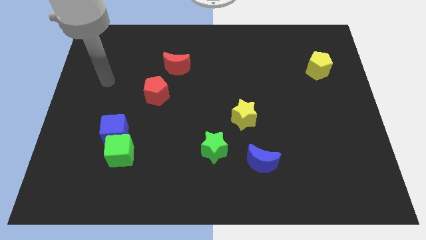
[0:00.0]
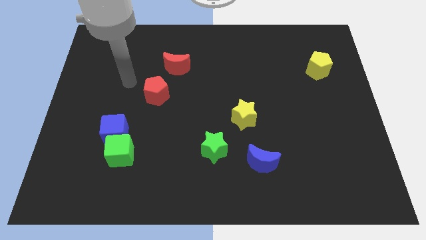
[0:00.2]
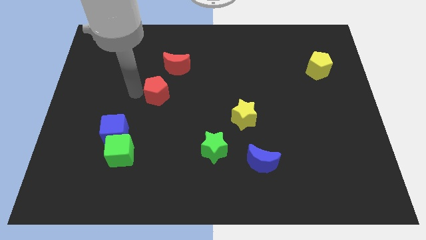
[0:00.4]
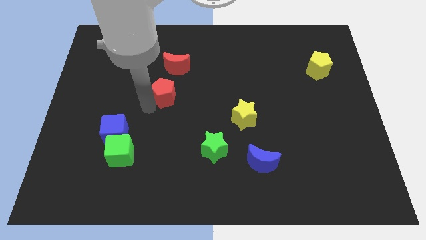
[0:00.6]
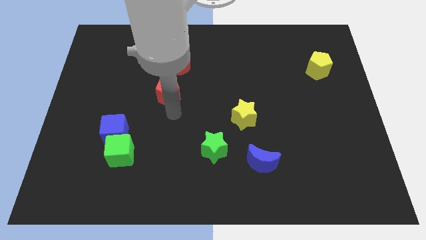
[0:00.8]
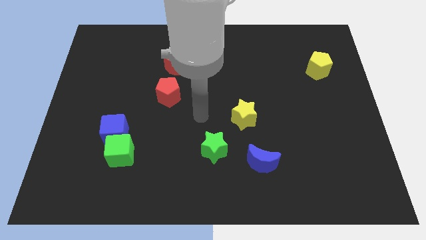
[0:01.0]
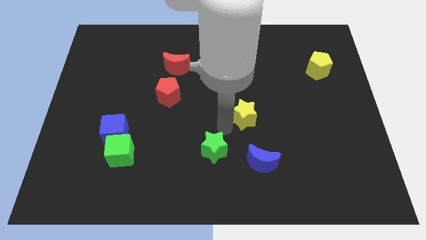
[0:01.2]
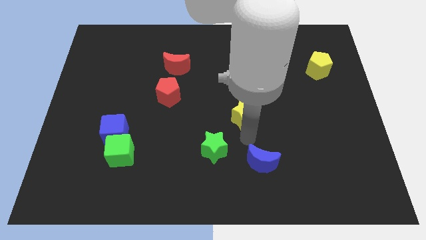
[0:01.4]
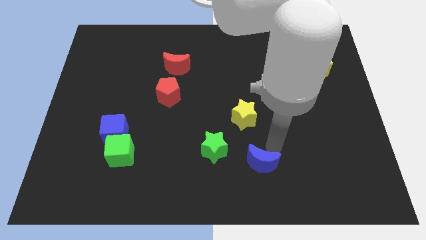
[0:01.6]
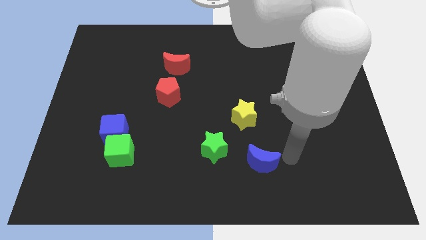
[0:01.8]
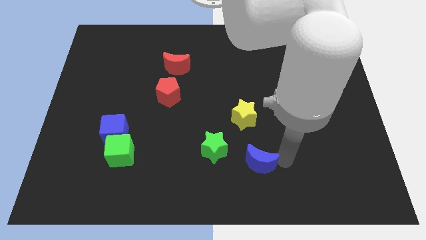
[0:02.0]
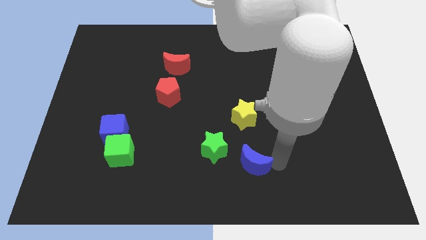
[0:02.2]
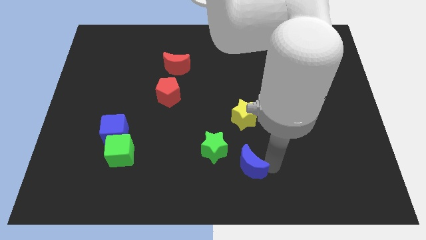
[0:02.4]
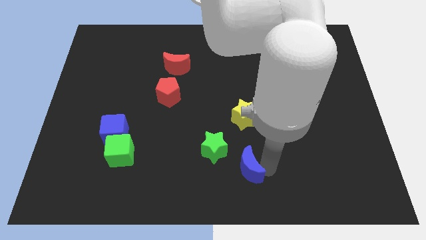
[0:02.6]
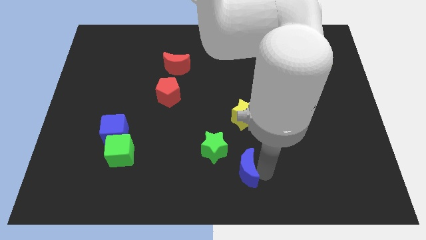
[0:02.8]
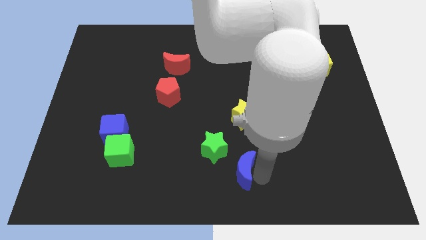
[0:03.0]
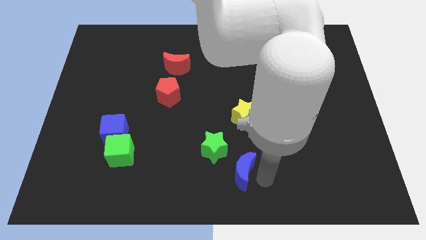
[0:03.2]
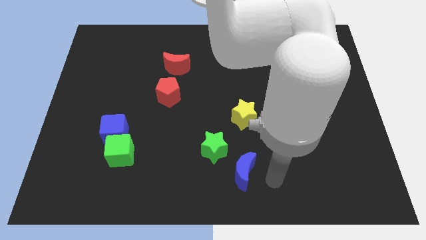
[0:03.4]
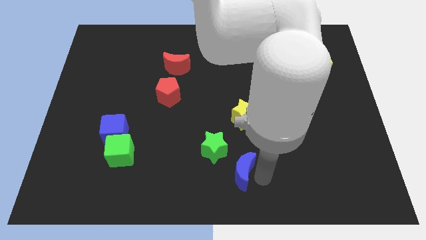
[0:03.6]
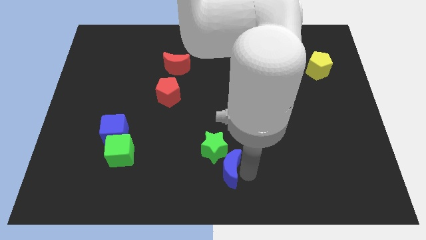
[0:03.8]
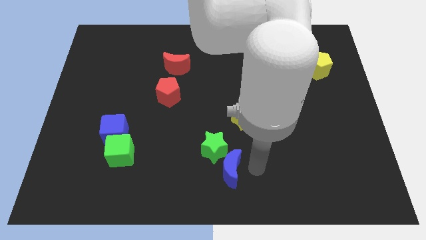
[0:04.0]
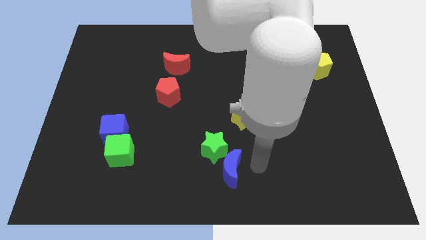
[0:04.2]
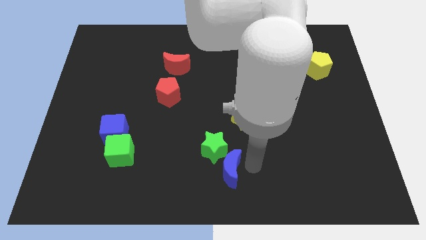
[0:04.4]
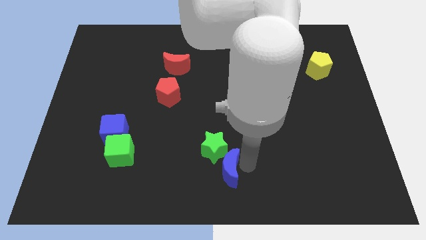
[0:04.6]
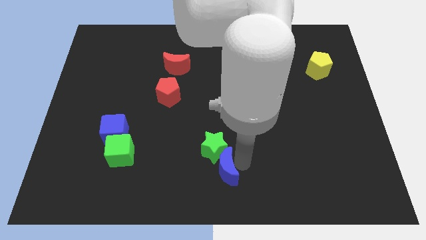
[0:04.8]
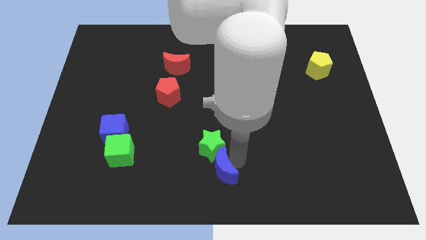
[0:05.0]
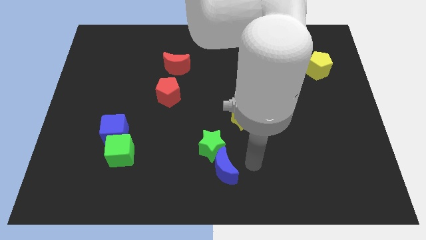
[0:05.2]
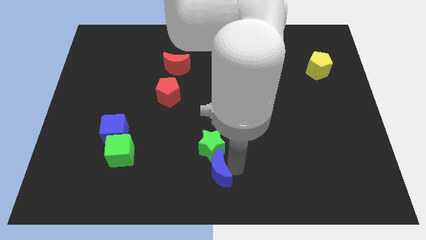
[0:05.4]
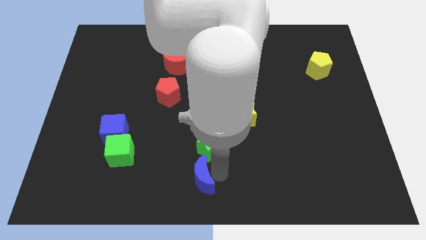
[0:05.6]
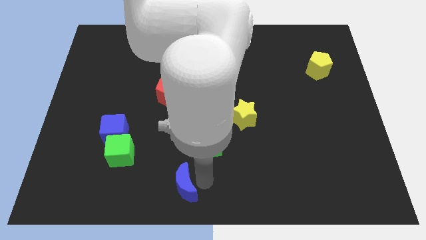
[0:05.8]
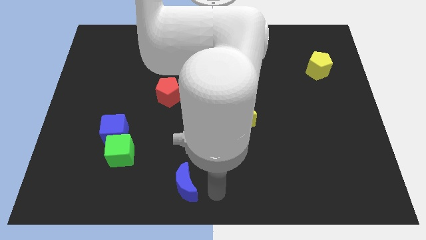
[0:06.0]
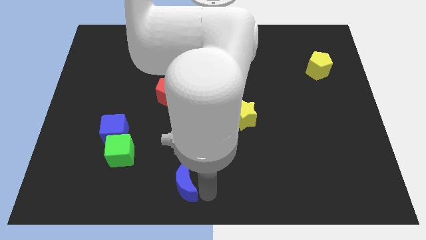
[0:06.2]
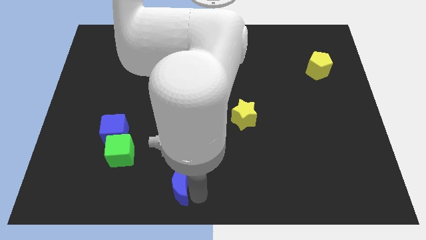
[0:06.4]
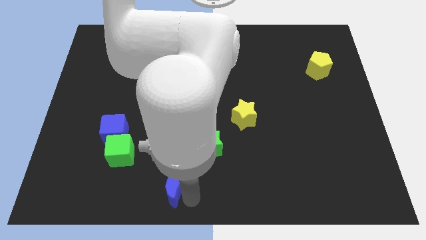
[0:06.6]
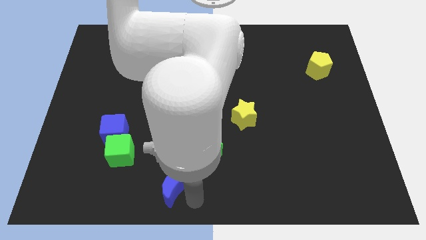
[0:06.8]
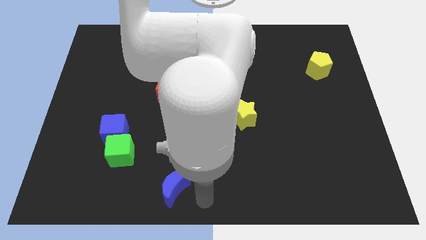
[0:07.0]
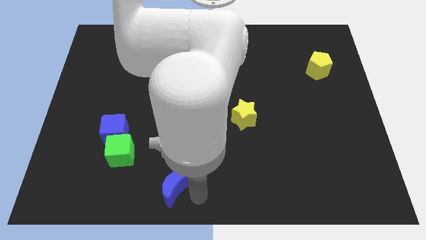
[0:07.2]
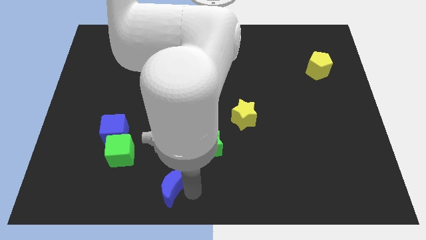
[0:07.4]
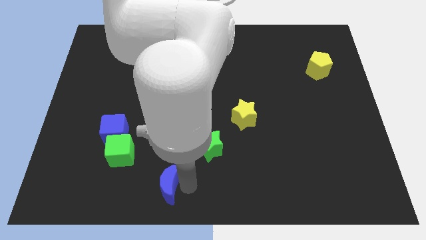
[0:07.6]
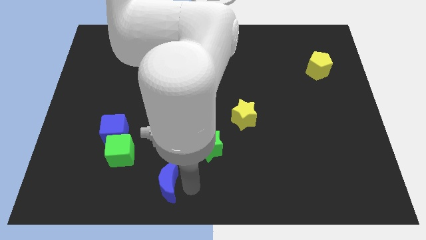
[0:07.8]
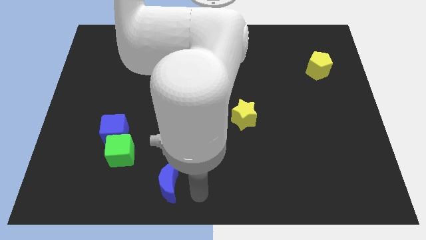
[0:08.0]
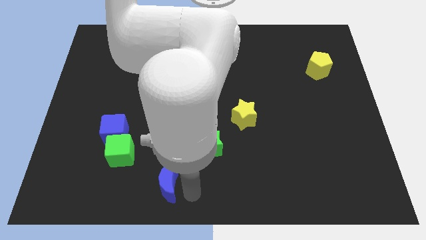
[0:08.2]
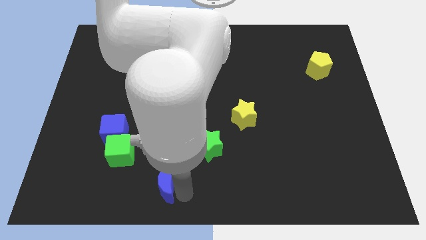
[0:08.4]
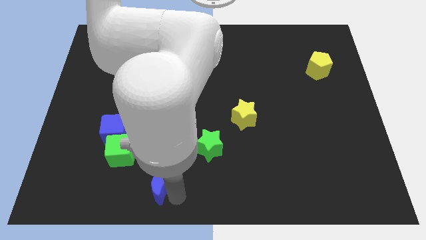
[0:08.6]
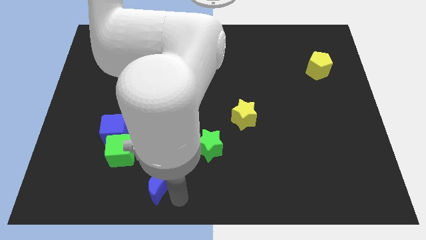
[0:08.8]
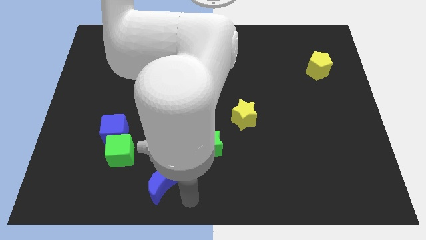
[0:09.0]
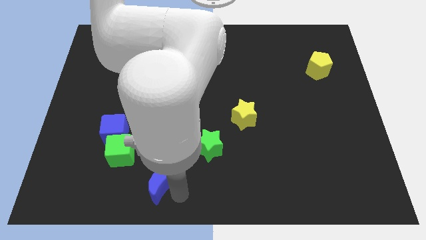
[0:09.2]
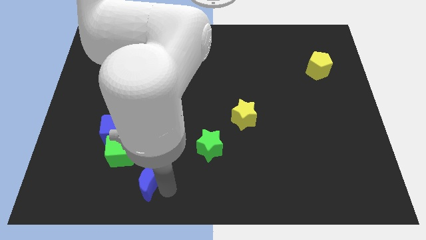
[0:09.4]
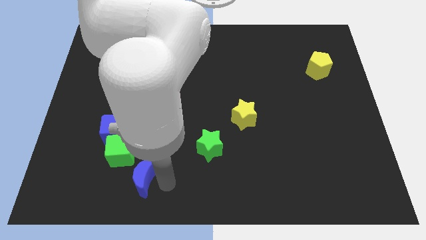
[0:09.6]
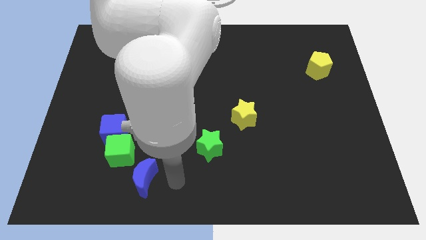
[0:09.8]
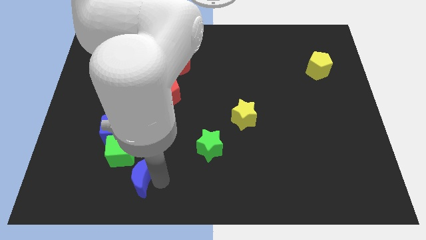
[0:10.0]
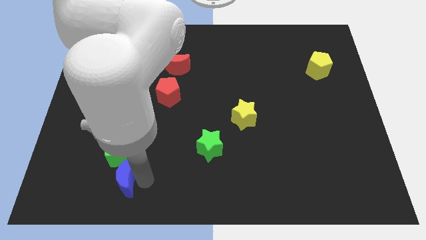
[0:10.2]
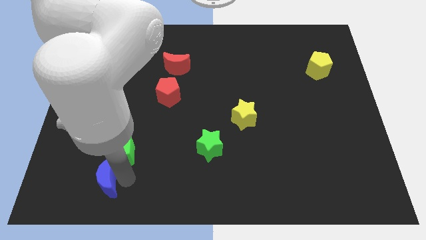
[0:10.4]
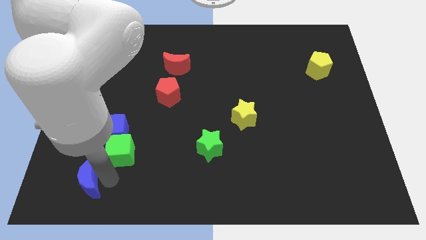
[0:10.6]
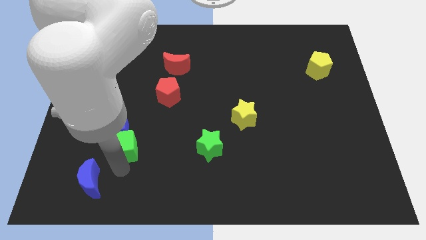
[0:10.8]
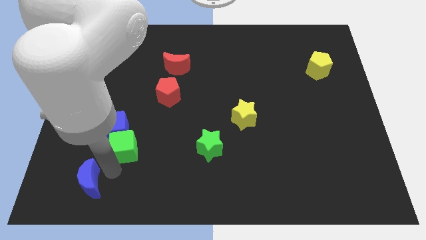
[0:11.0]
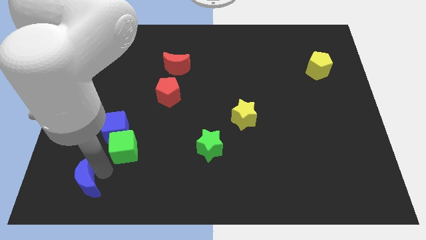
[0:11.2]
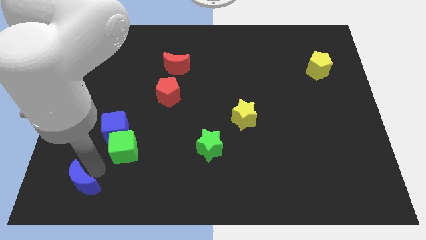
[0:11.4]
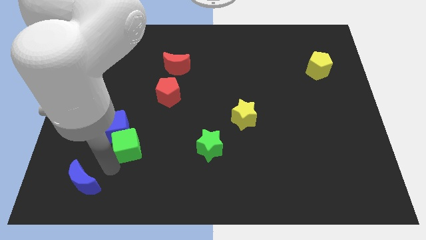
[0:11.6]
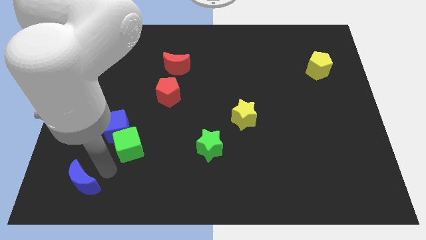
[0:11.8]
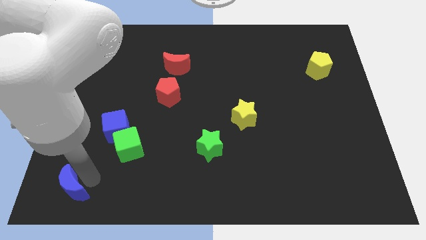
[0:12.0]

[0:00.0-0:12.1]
move the blue moon to the bottom left corner
